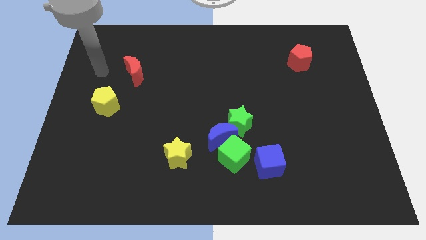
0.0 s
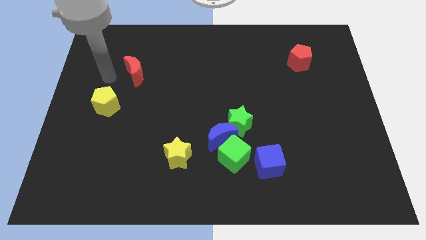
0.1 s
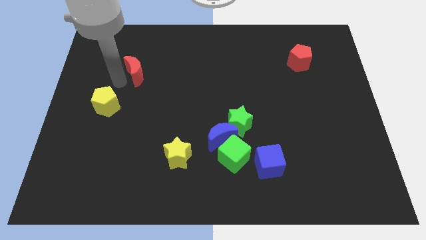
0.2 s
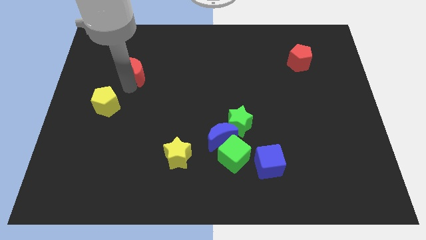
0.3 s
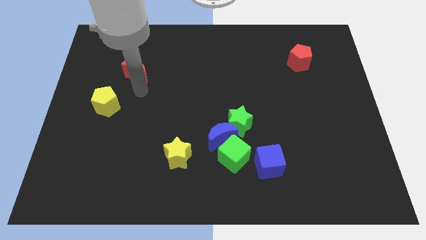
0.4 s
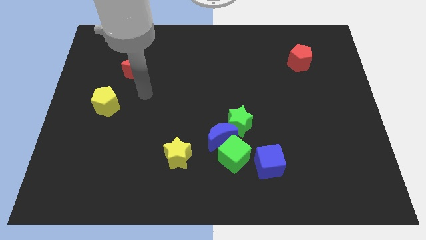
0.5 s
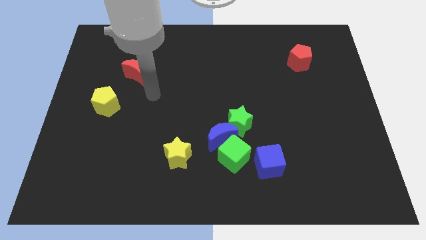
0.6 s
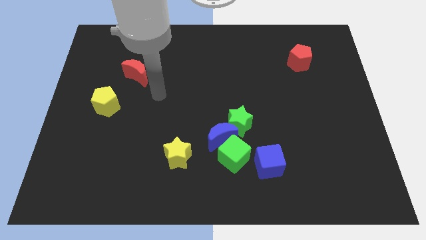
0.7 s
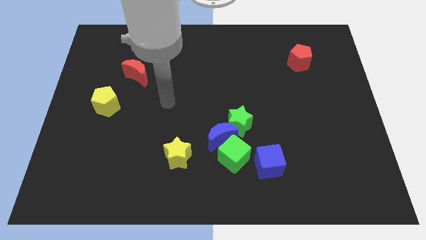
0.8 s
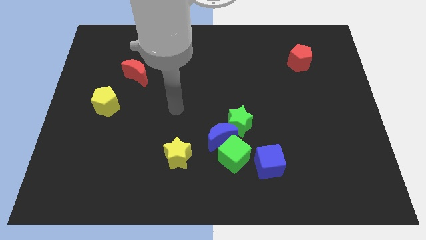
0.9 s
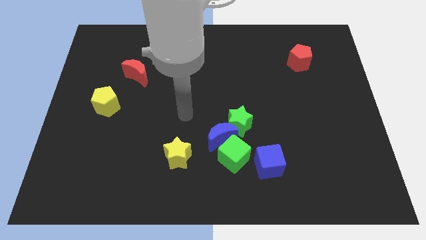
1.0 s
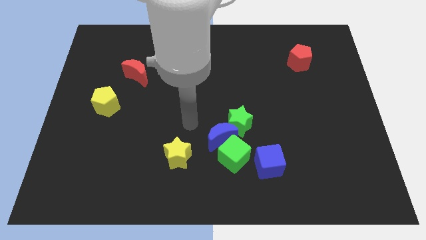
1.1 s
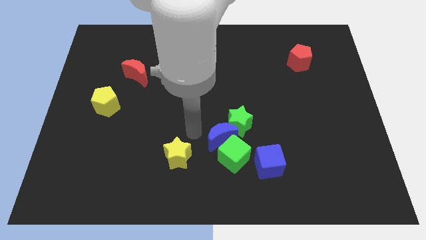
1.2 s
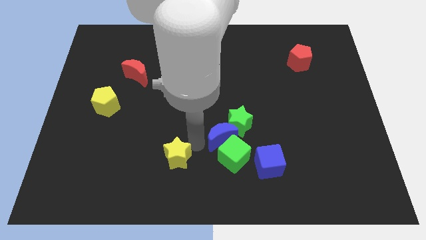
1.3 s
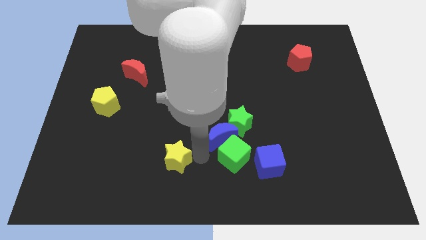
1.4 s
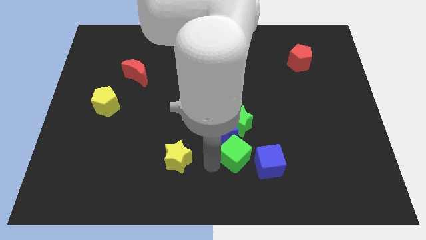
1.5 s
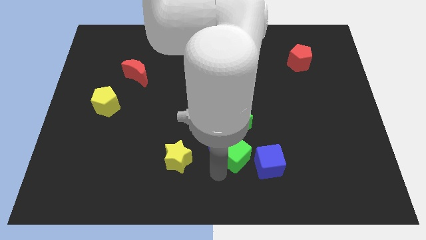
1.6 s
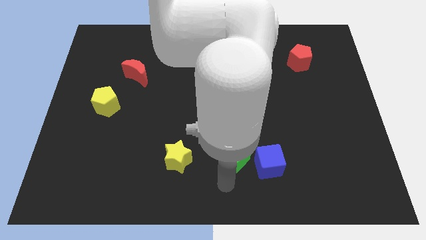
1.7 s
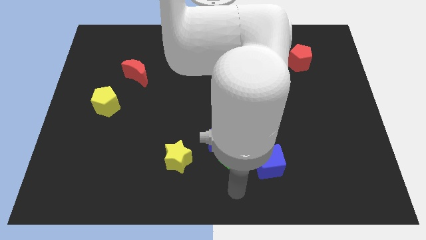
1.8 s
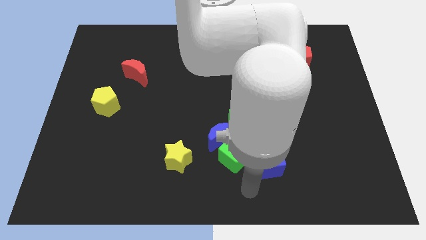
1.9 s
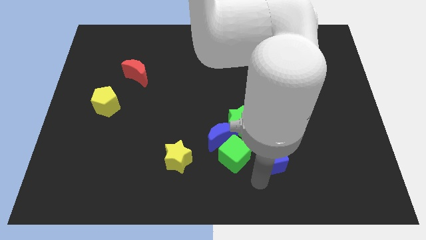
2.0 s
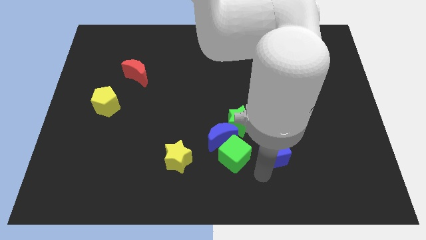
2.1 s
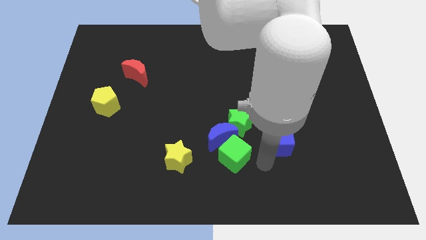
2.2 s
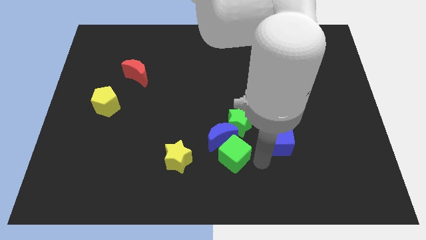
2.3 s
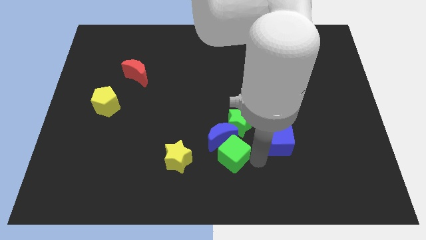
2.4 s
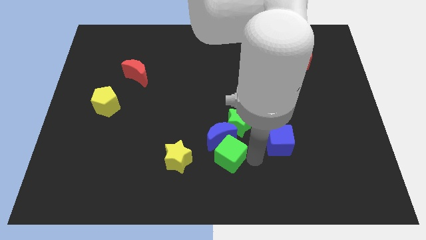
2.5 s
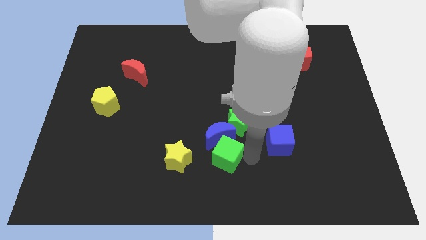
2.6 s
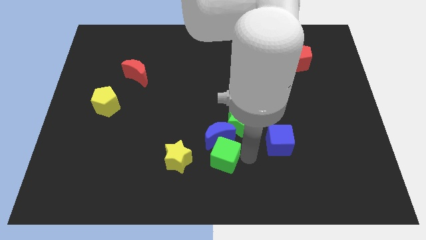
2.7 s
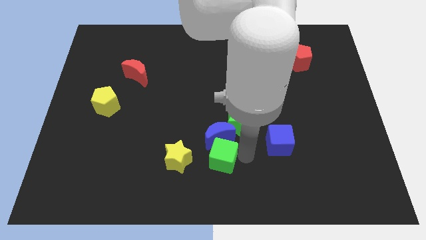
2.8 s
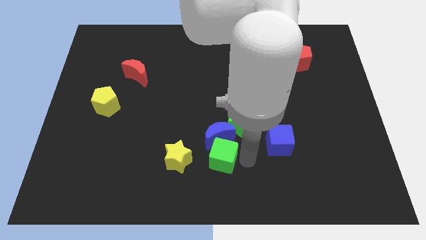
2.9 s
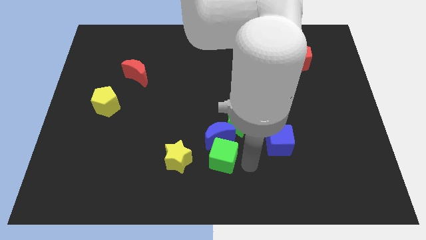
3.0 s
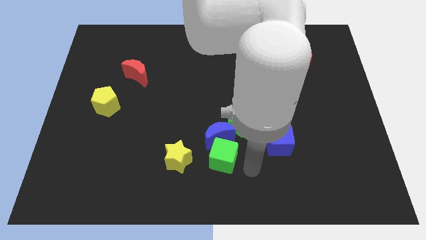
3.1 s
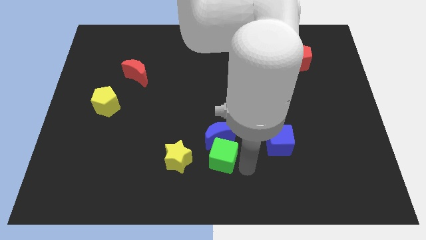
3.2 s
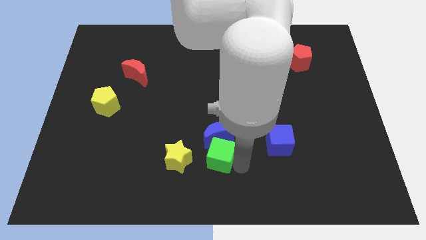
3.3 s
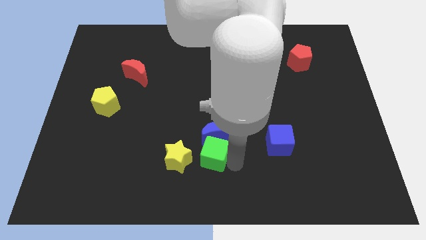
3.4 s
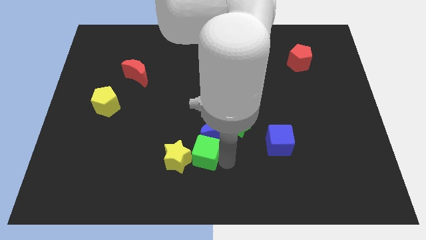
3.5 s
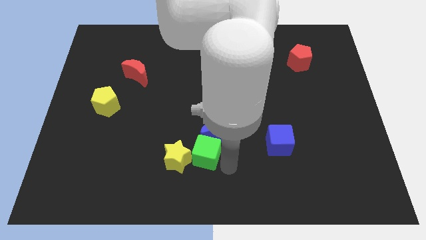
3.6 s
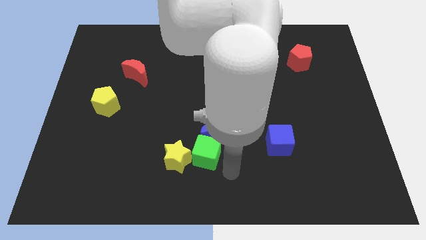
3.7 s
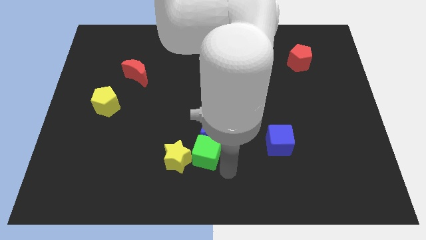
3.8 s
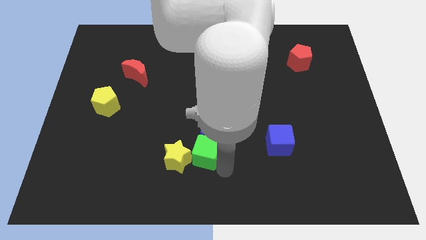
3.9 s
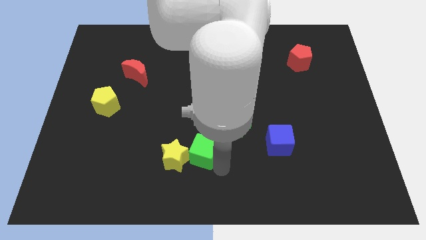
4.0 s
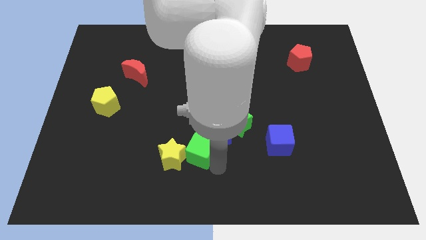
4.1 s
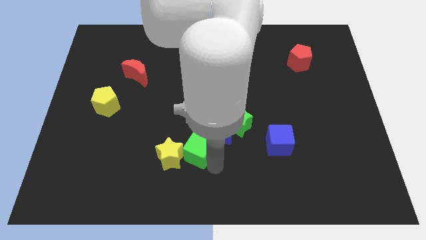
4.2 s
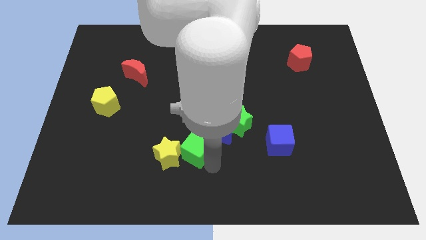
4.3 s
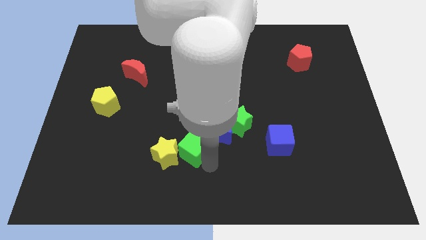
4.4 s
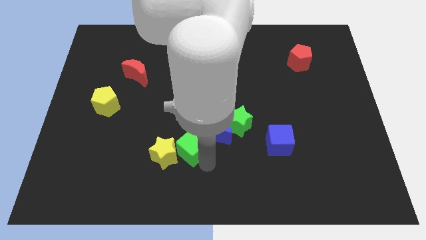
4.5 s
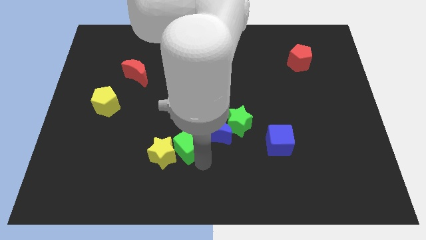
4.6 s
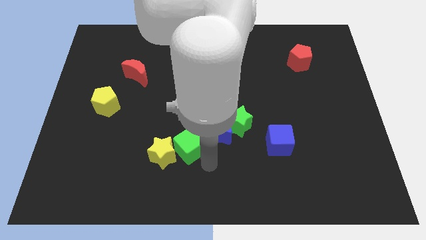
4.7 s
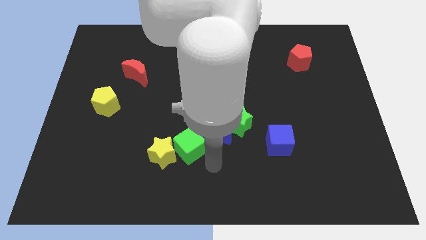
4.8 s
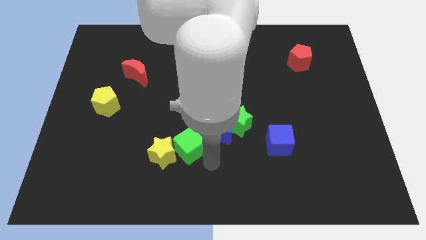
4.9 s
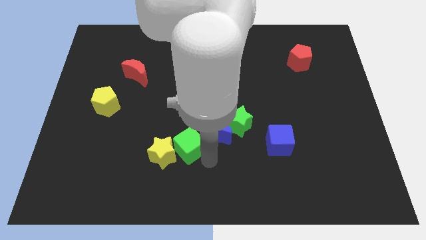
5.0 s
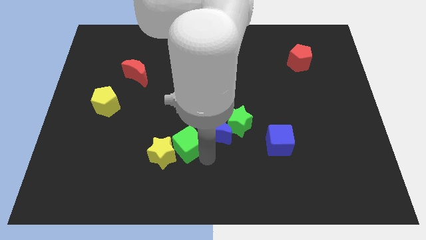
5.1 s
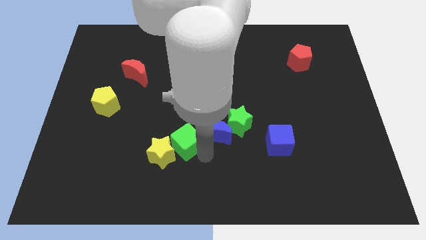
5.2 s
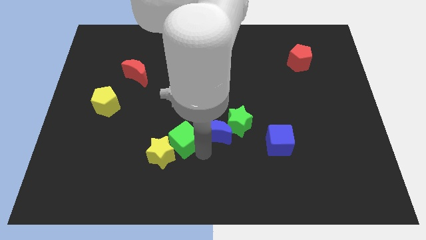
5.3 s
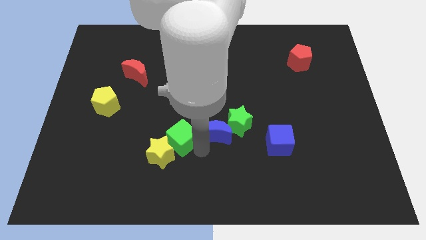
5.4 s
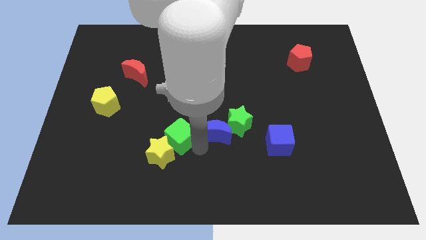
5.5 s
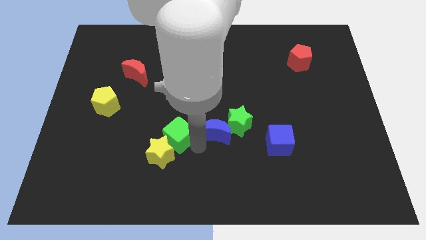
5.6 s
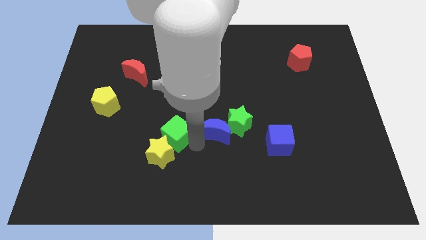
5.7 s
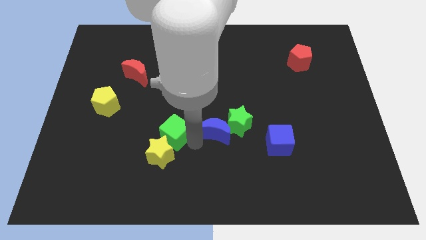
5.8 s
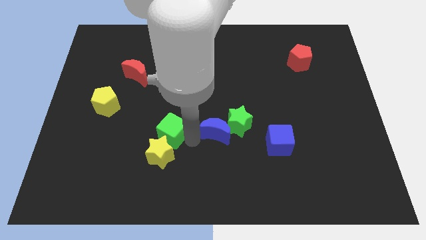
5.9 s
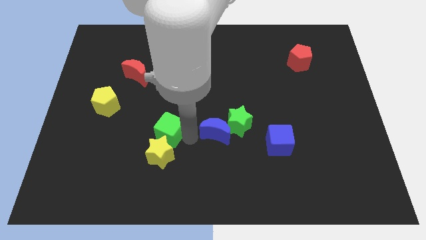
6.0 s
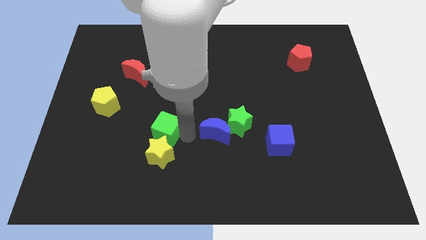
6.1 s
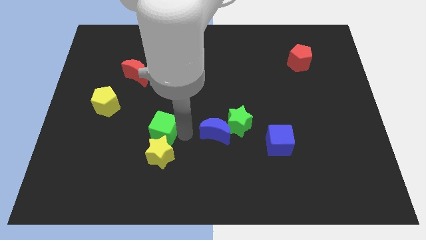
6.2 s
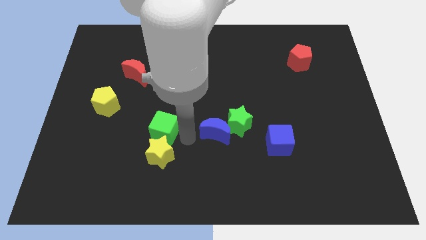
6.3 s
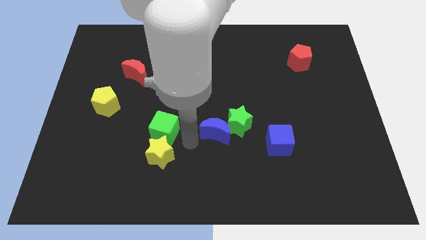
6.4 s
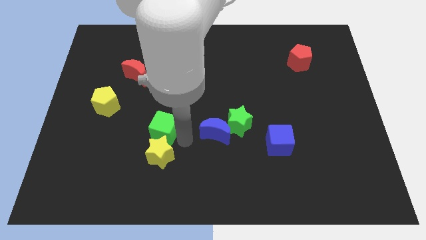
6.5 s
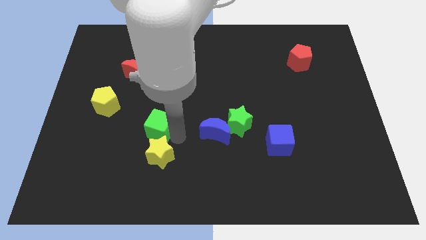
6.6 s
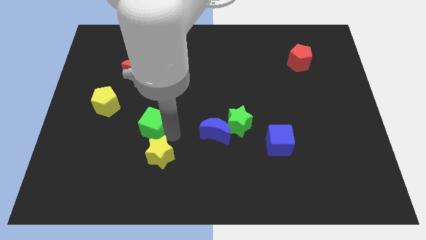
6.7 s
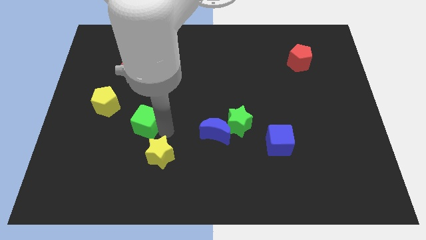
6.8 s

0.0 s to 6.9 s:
slide the green cube to the bottom right of the yellow pentagon
